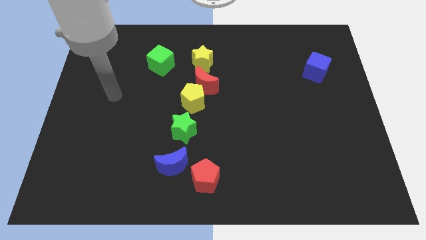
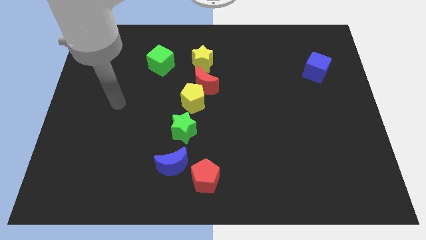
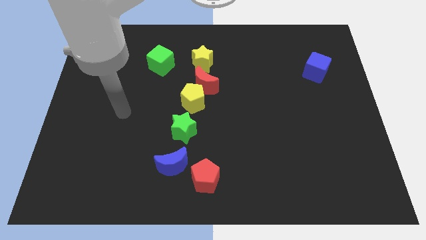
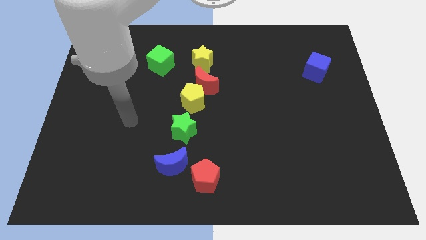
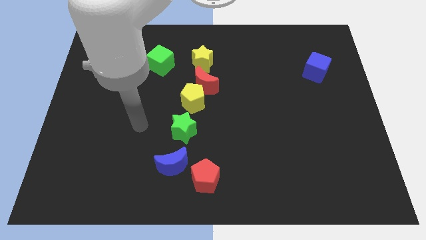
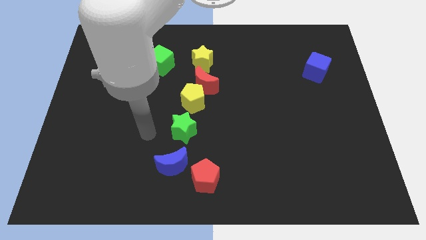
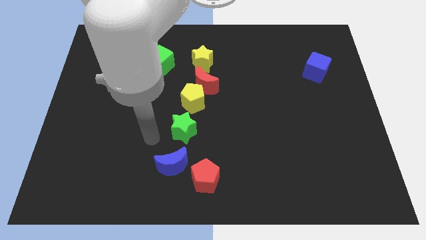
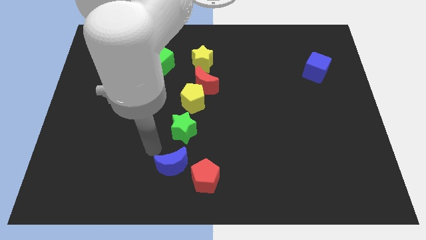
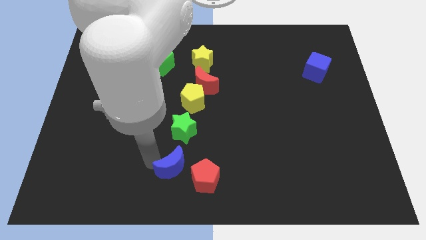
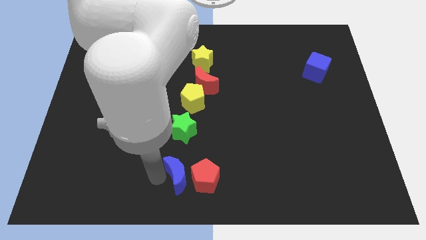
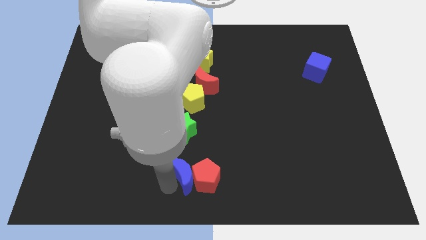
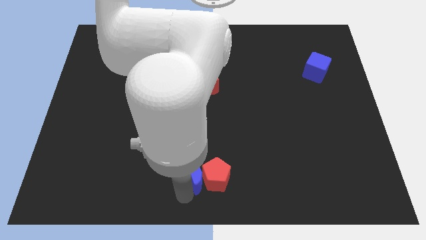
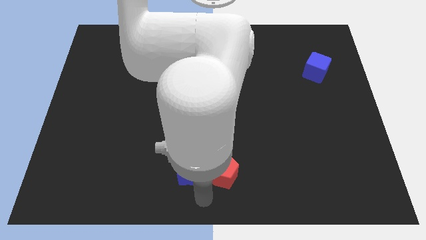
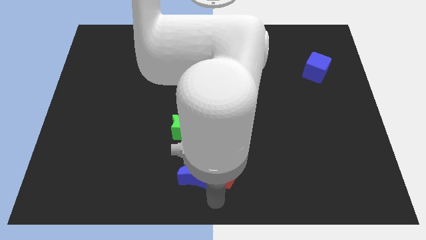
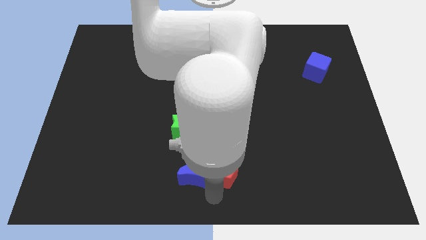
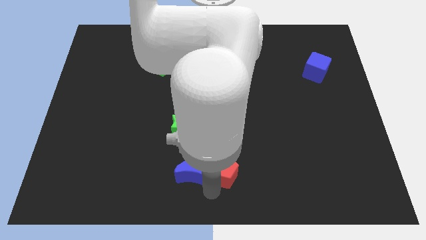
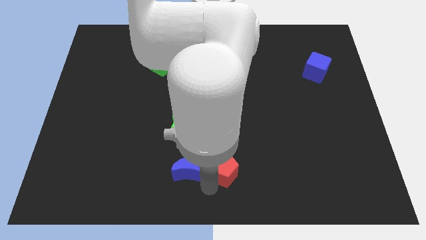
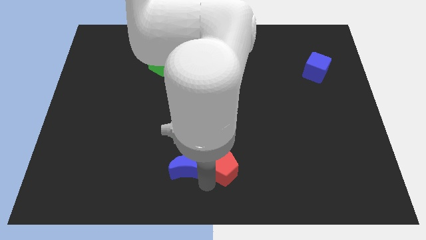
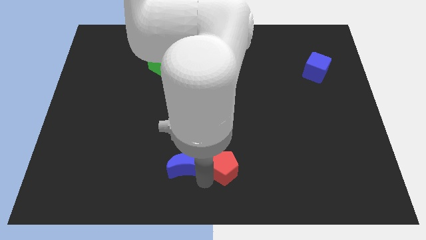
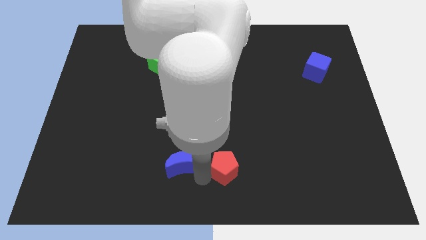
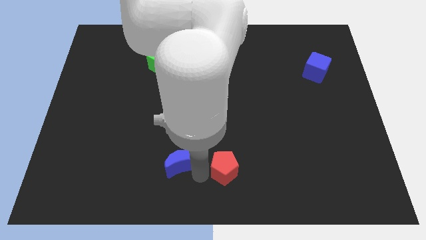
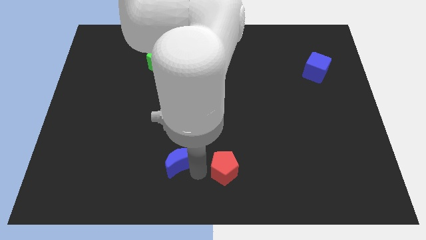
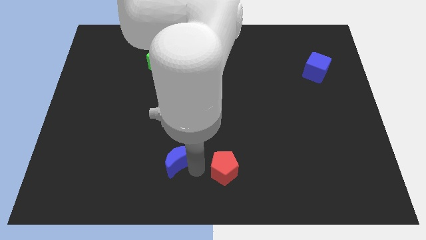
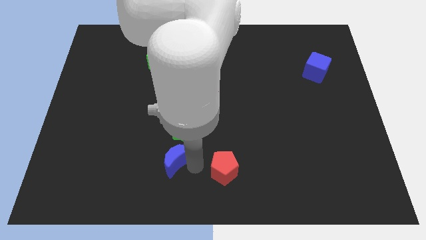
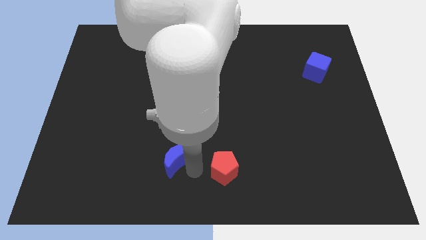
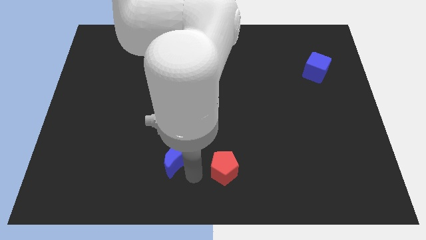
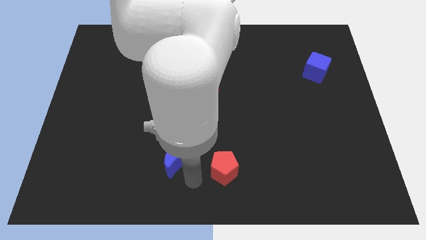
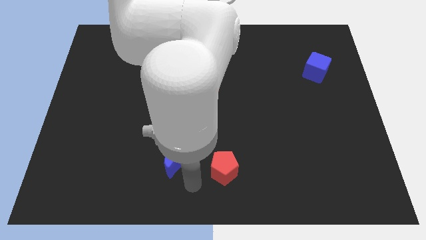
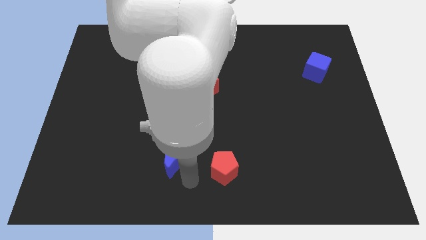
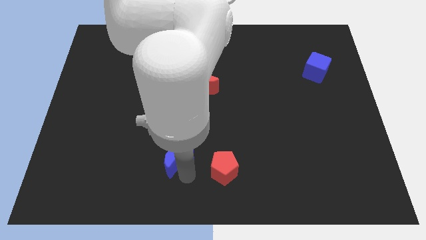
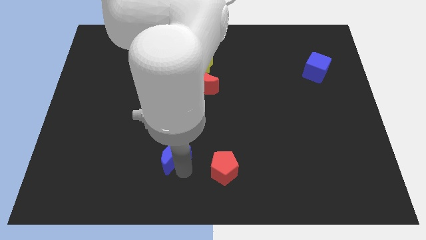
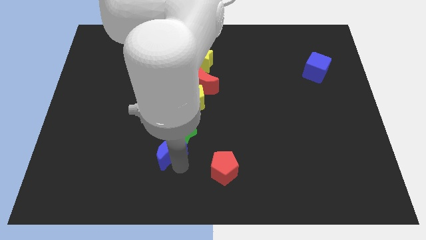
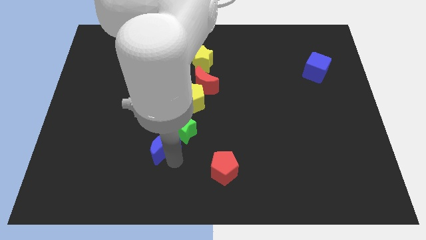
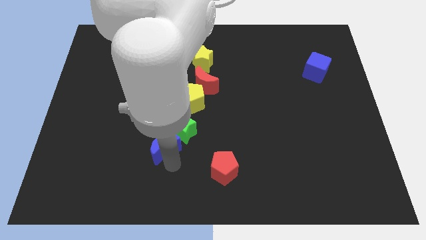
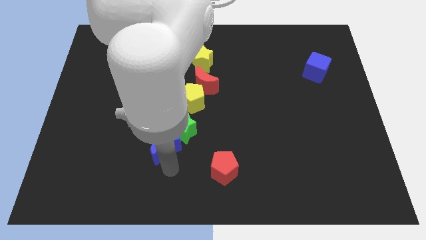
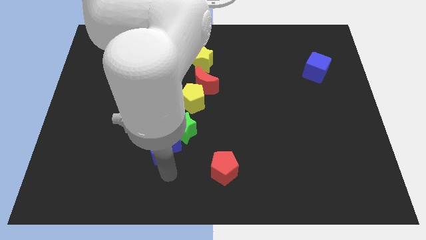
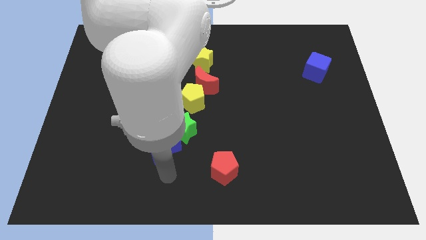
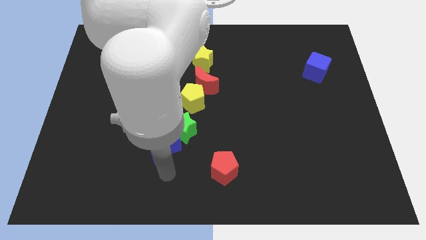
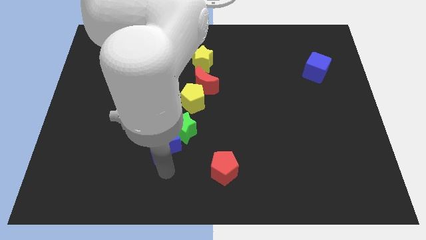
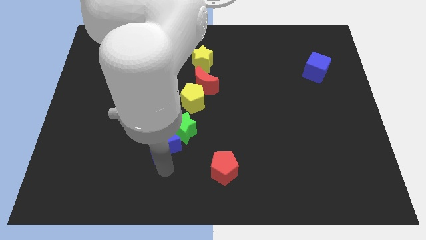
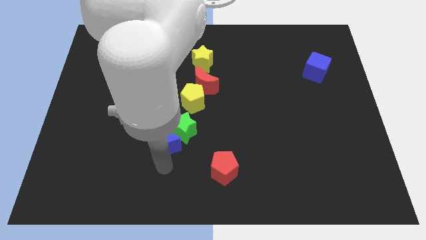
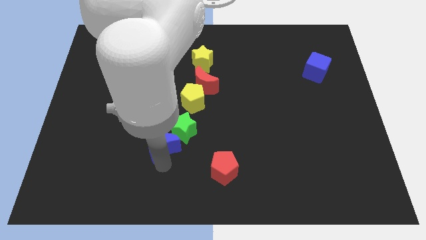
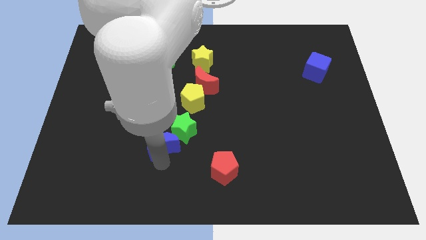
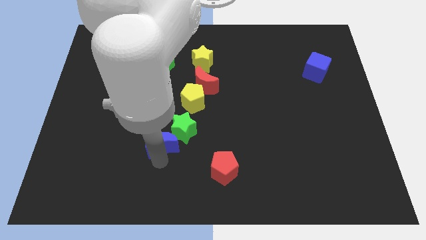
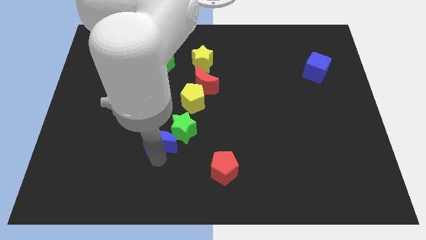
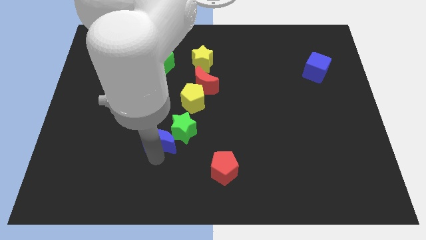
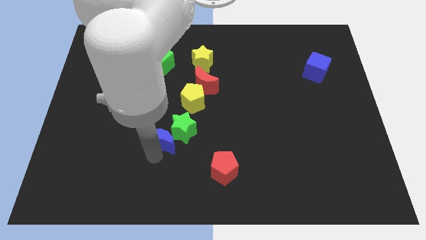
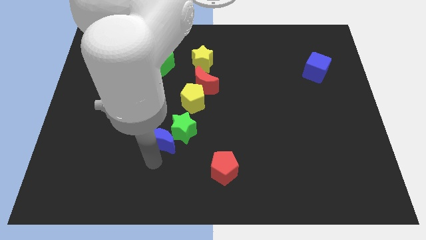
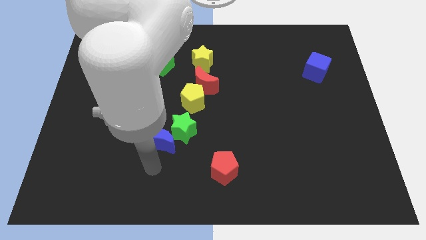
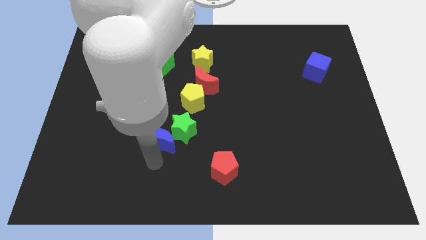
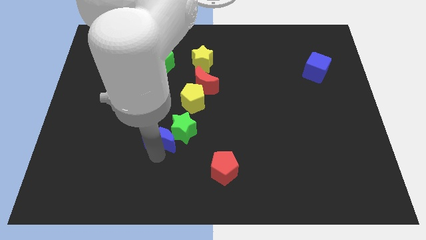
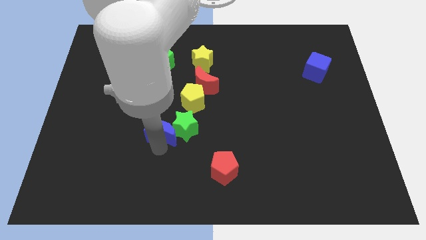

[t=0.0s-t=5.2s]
slightly push the blue moon up

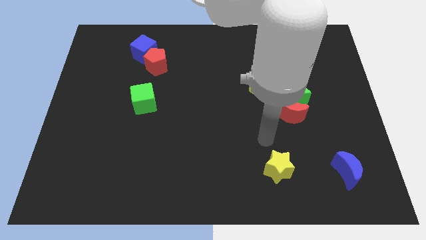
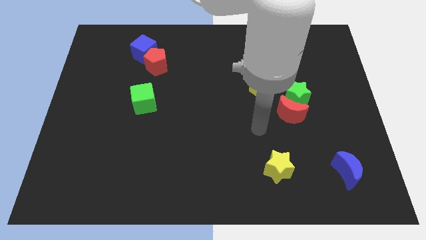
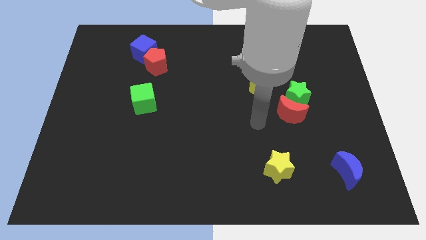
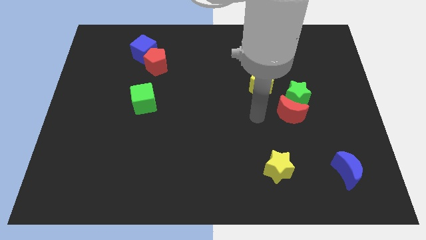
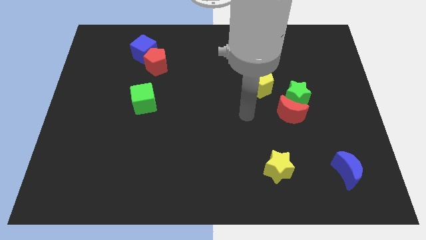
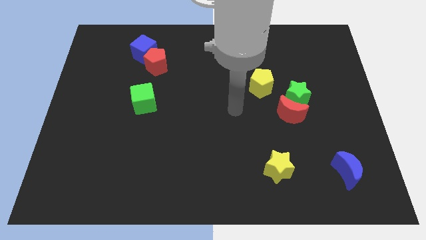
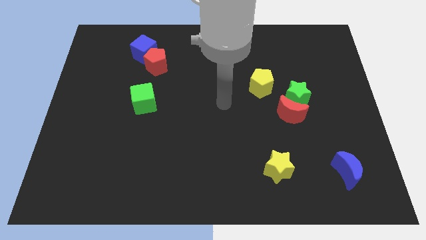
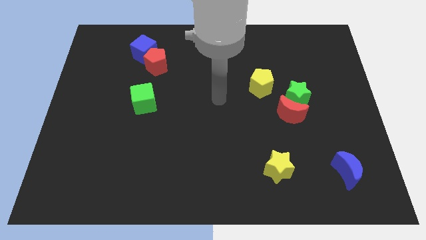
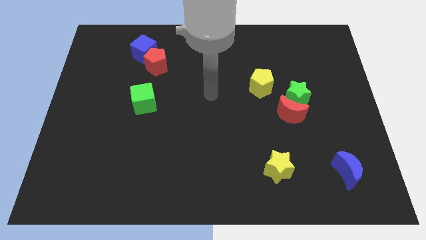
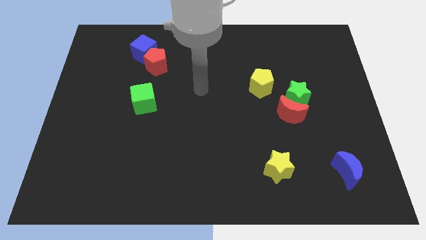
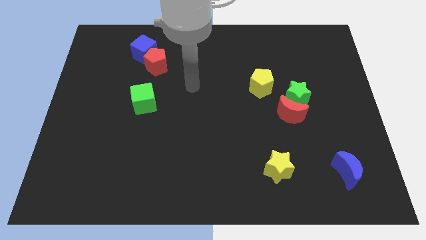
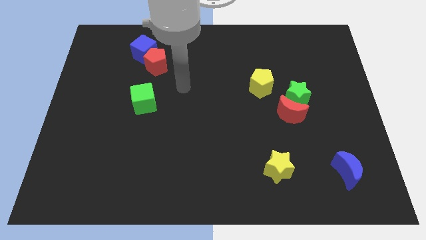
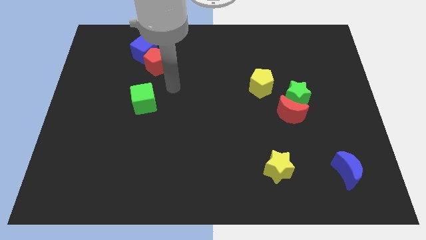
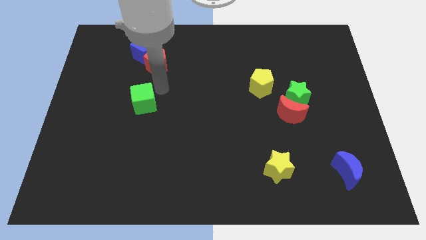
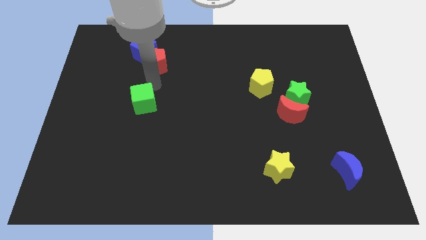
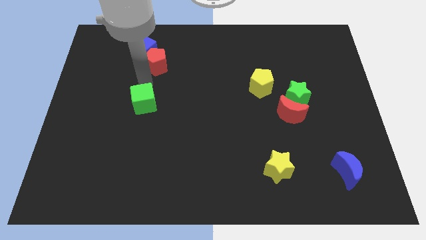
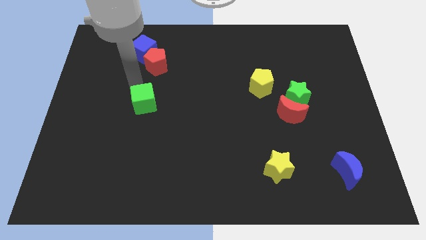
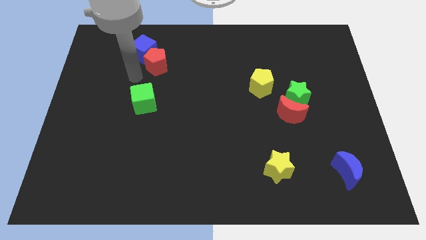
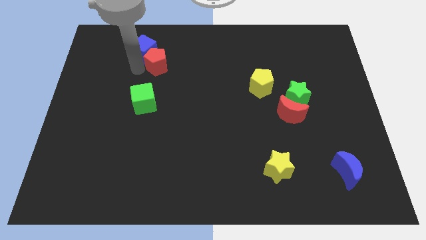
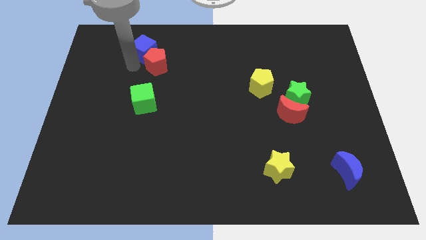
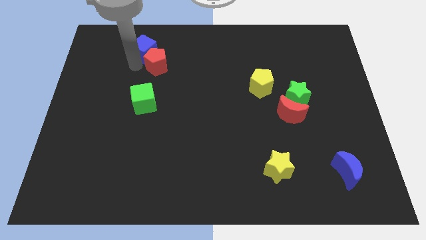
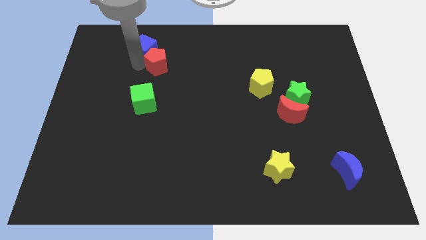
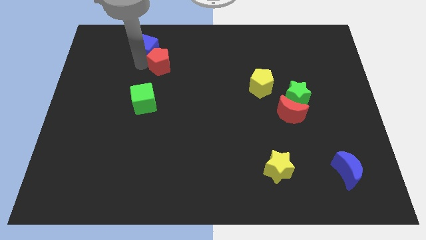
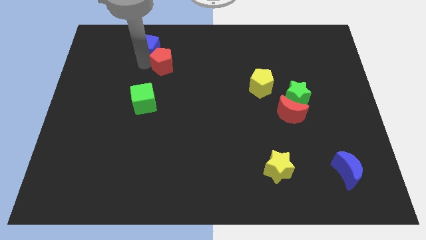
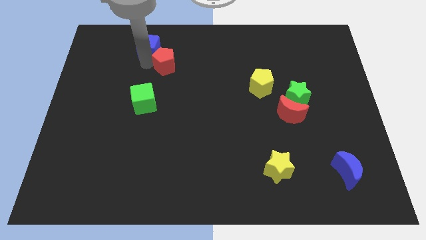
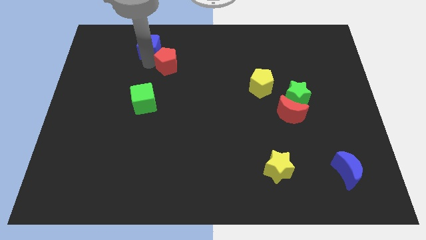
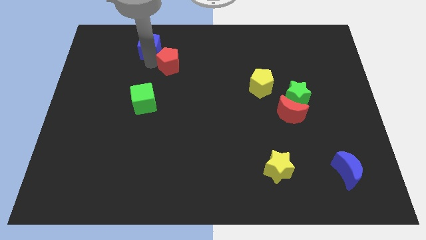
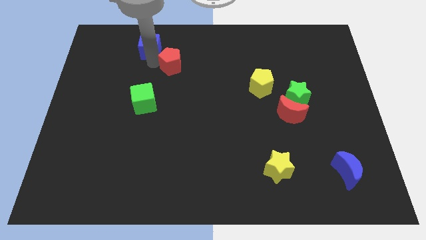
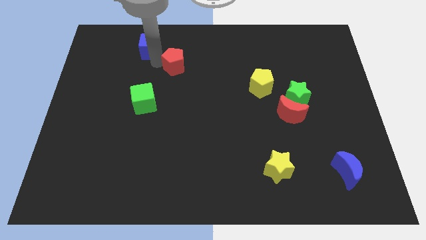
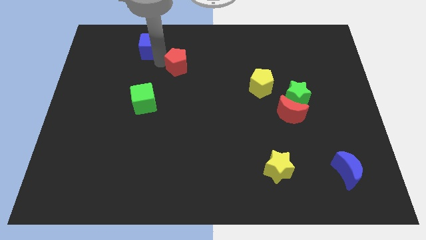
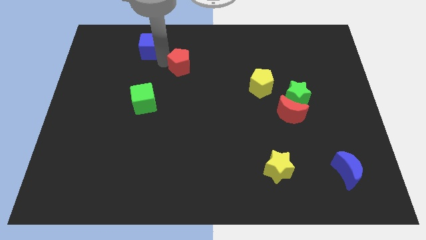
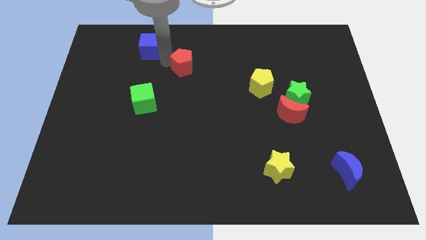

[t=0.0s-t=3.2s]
slightly push the red pentagon to the right
